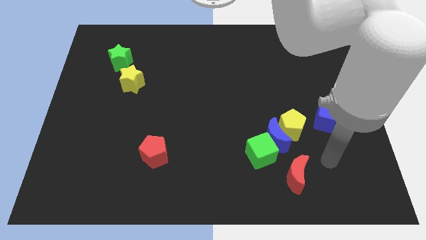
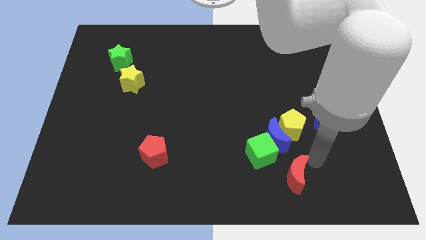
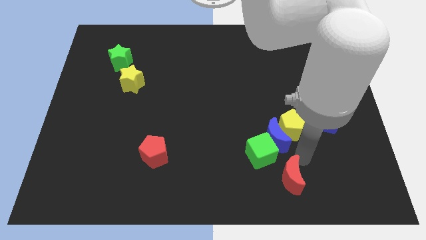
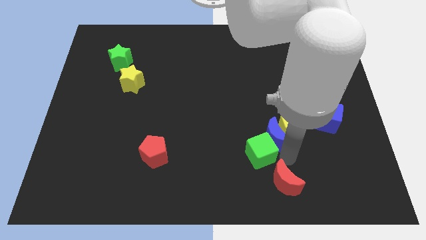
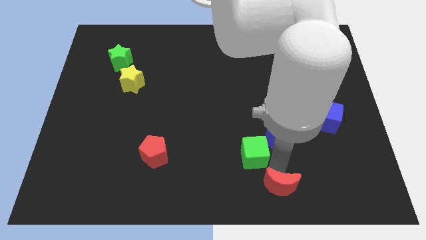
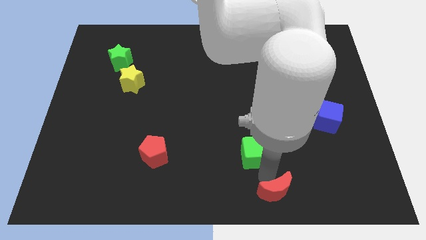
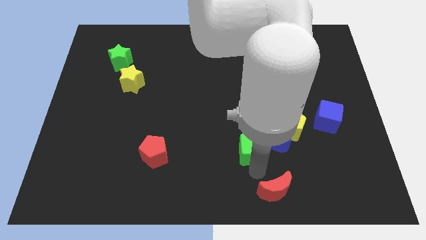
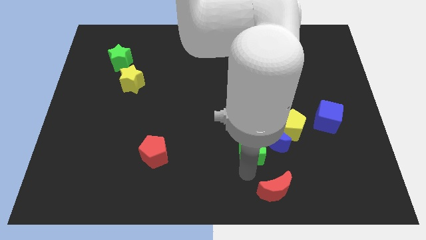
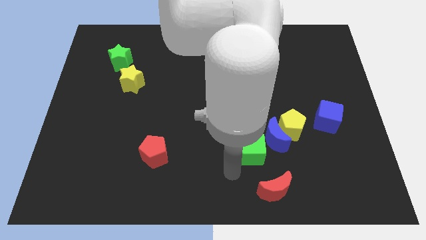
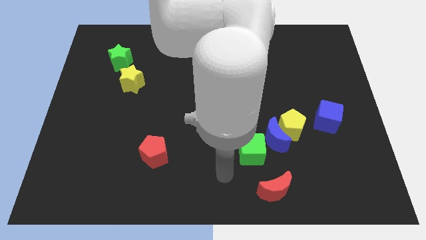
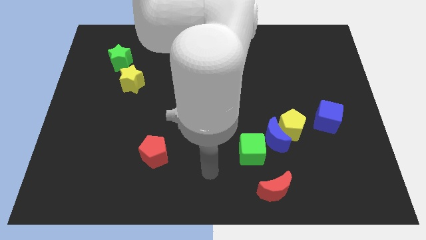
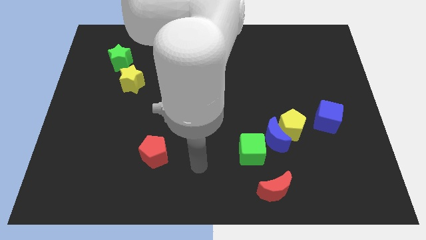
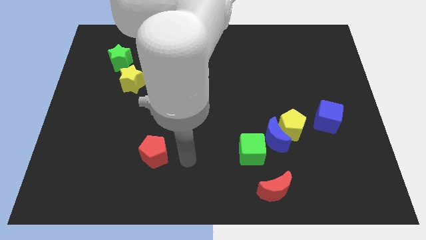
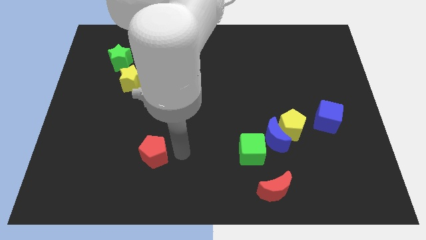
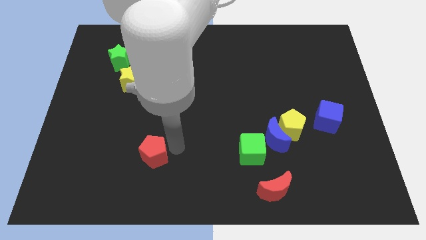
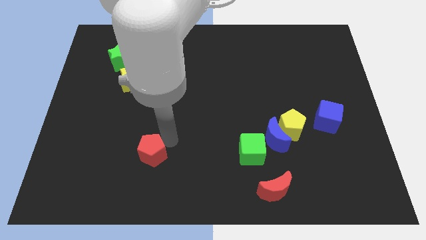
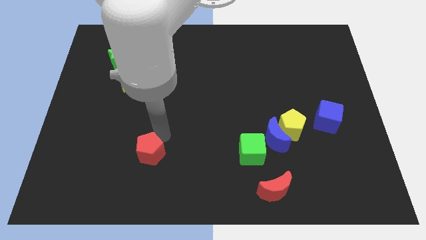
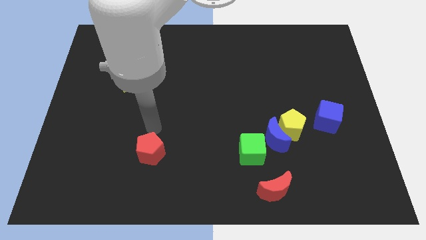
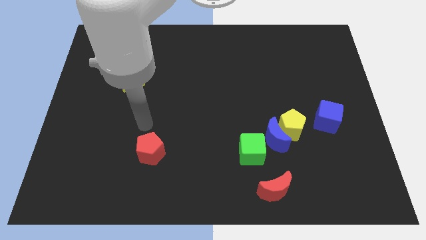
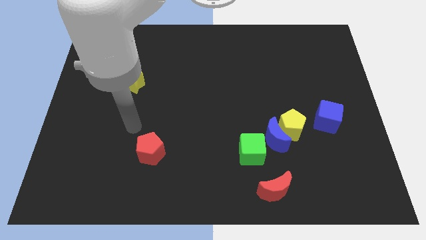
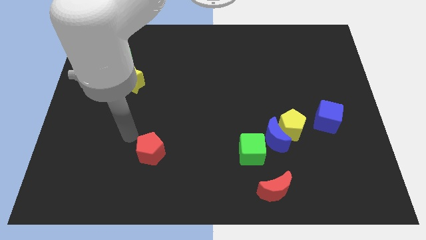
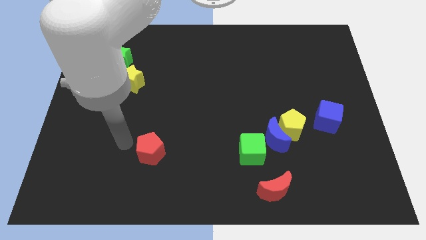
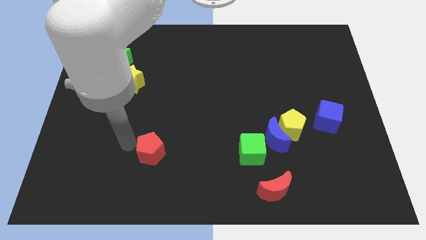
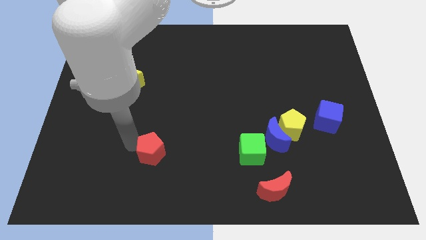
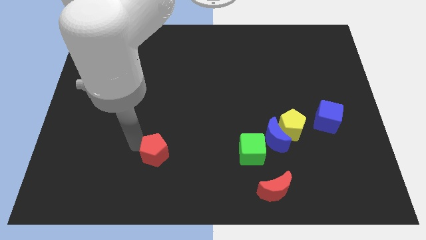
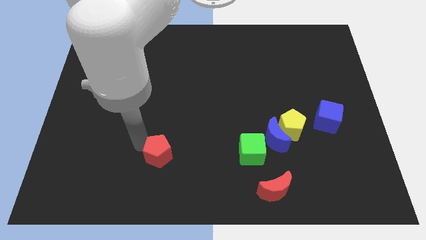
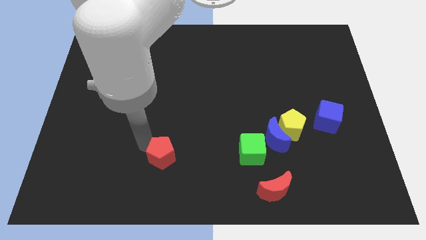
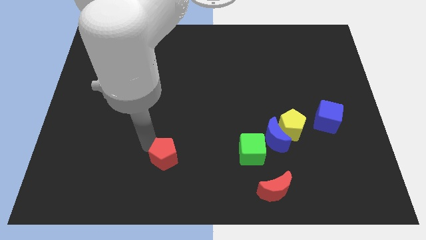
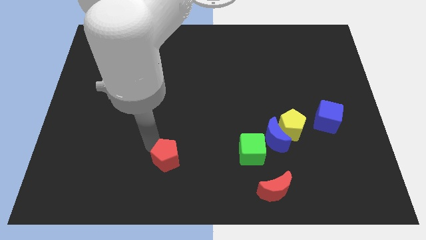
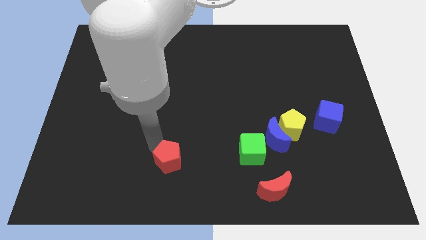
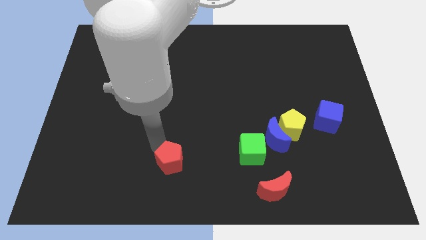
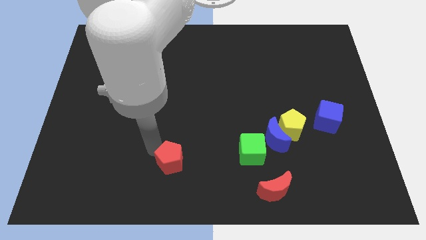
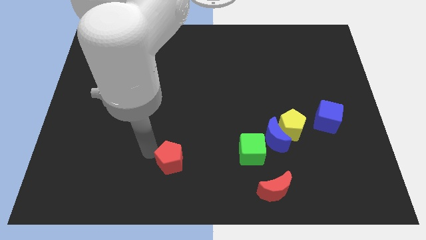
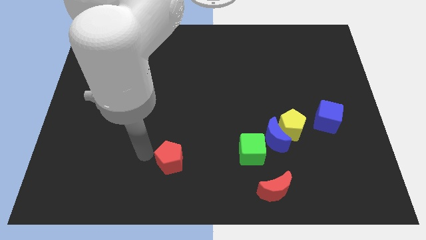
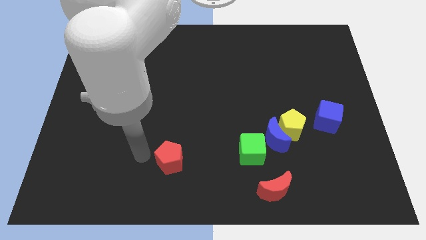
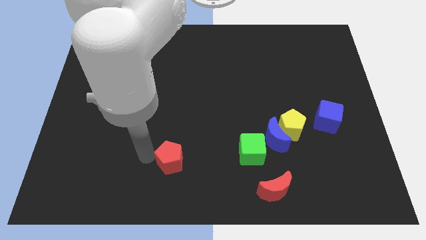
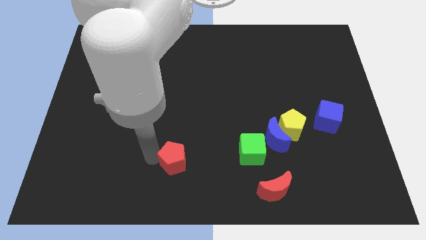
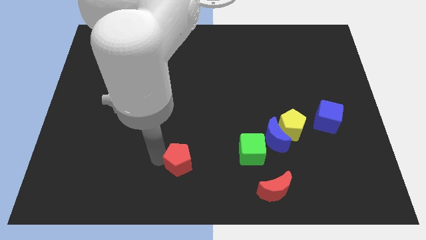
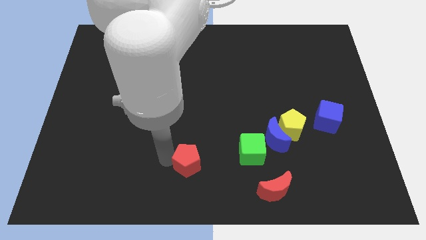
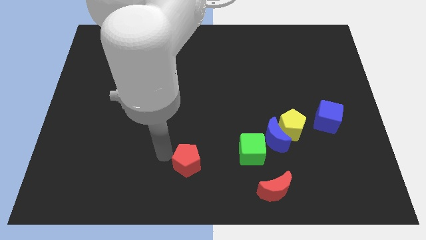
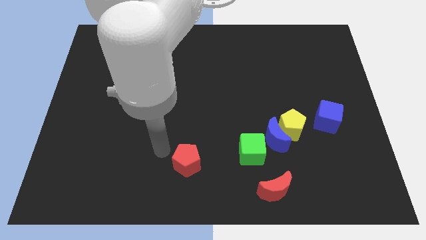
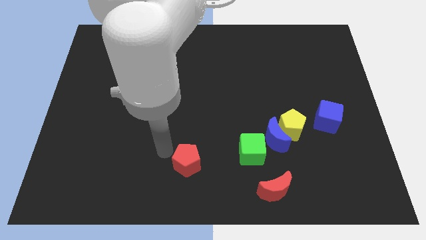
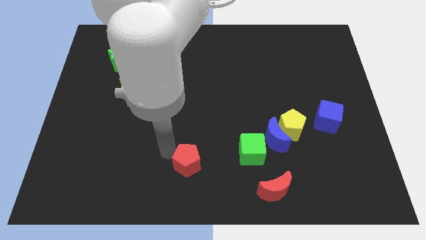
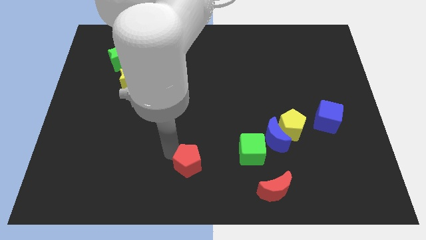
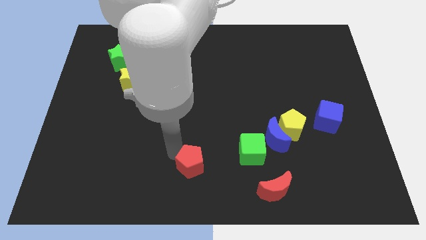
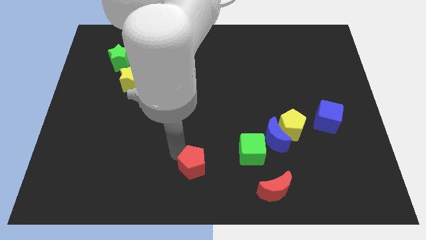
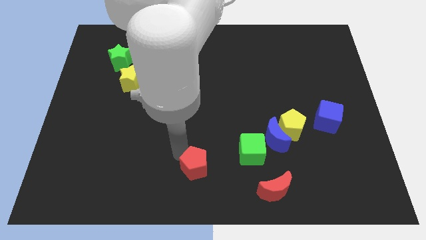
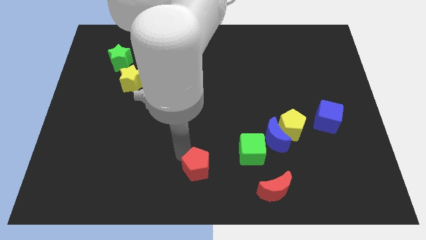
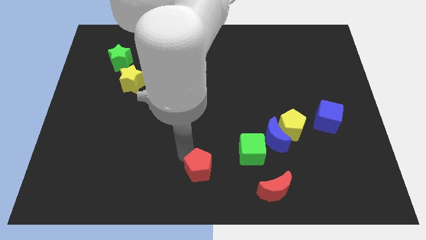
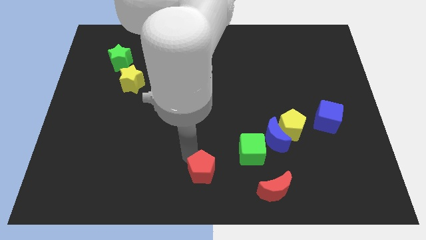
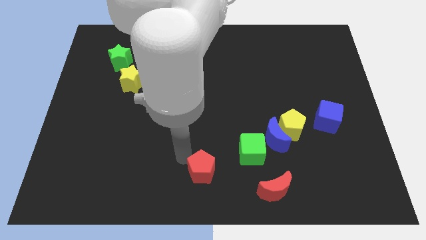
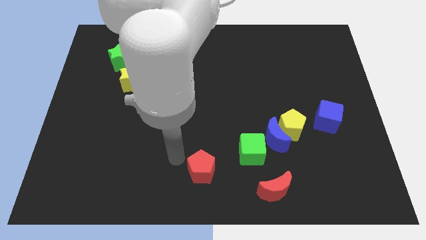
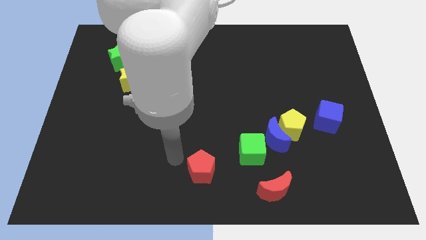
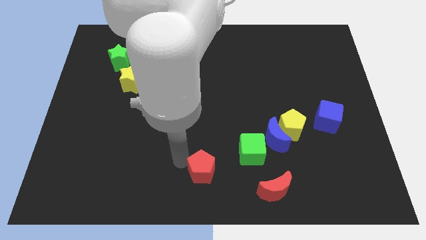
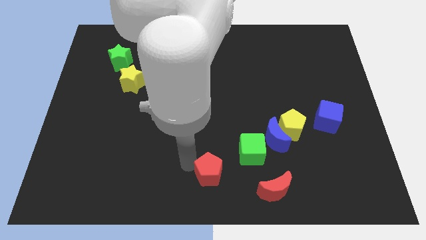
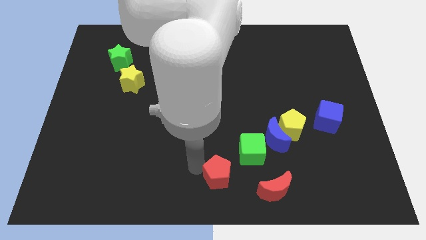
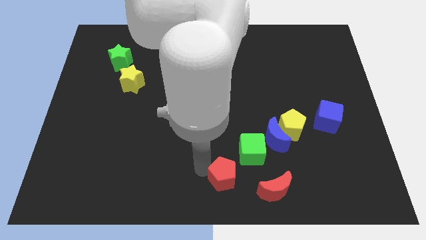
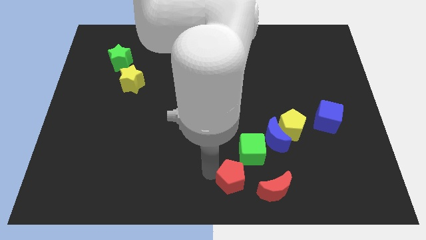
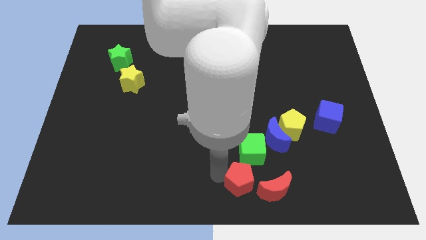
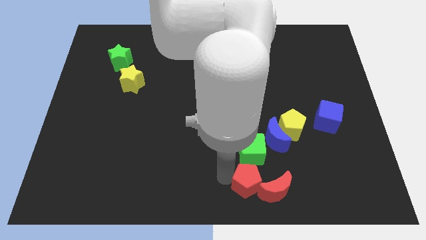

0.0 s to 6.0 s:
push the red pentagon next to the red moon

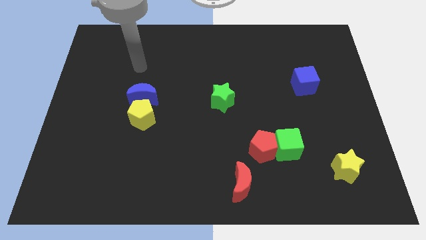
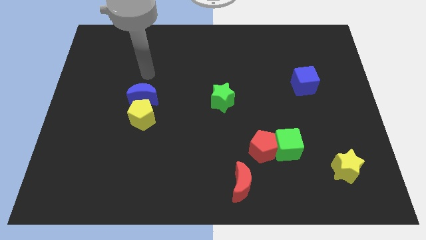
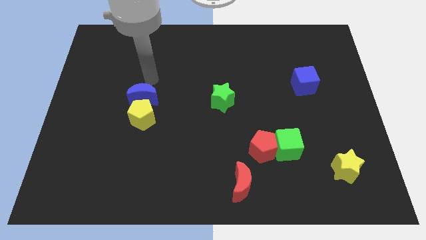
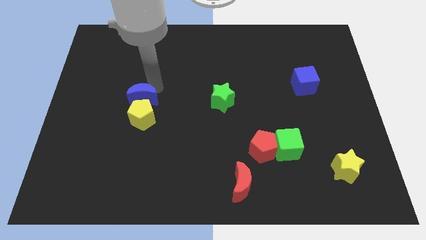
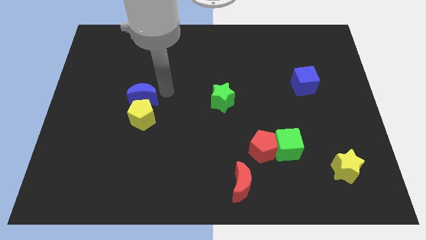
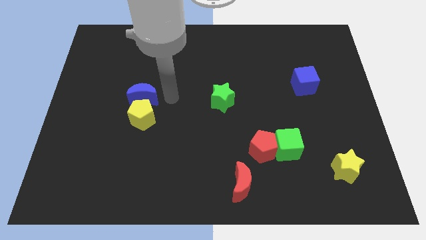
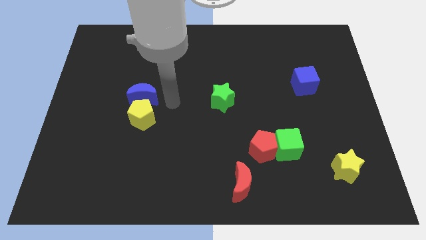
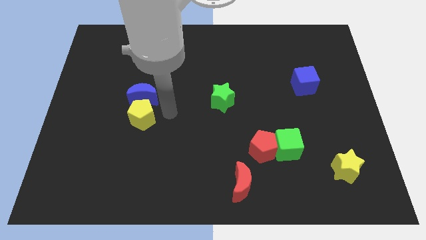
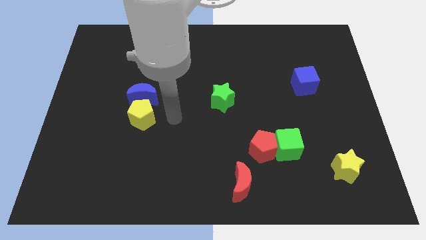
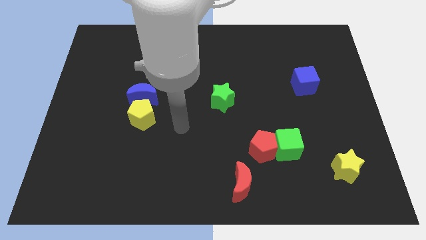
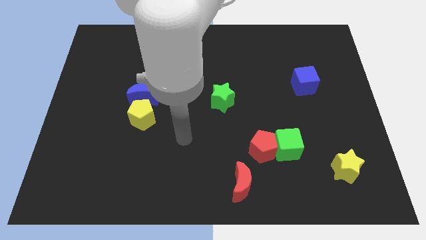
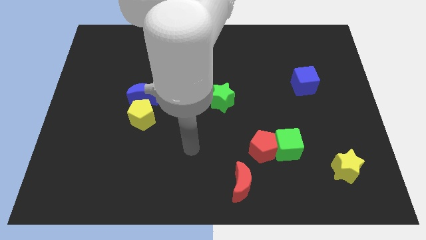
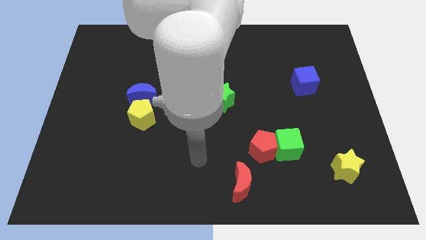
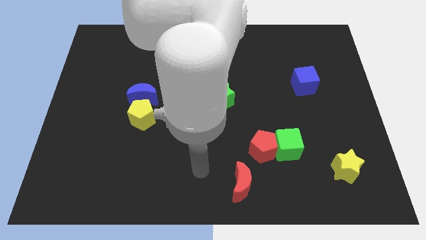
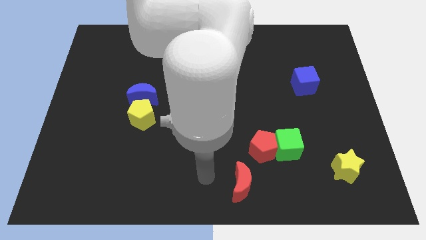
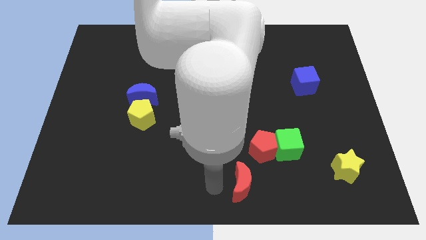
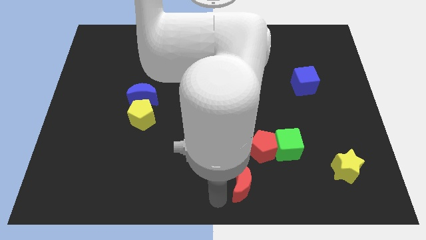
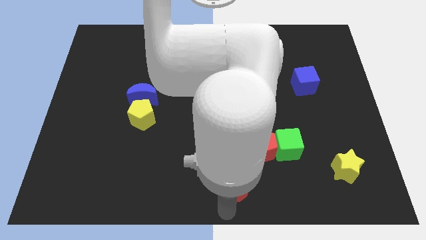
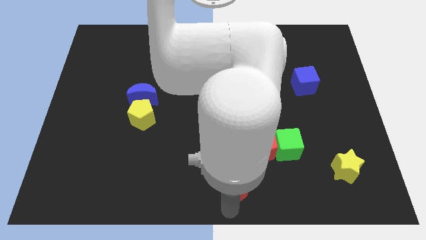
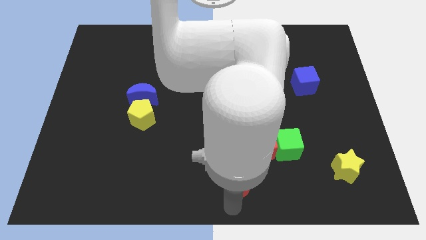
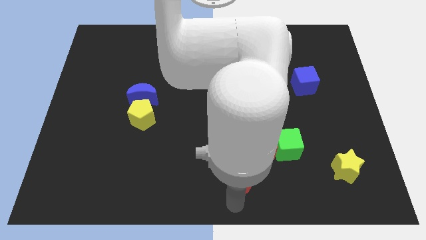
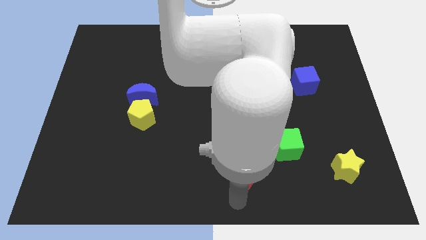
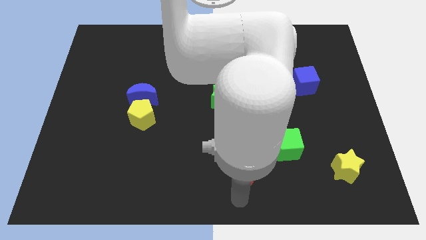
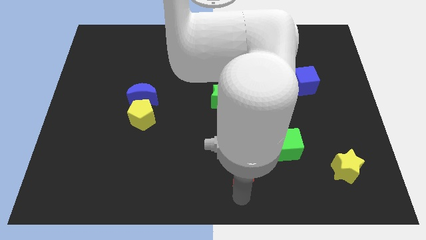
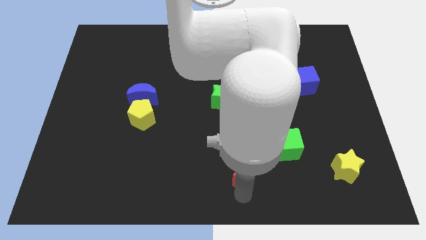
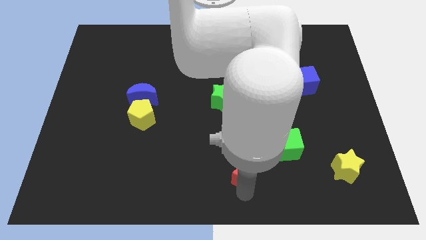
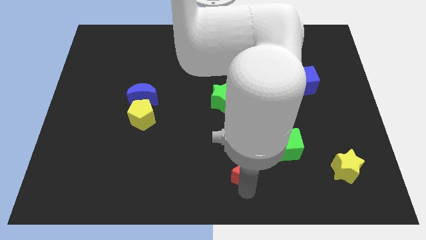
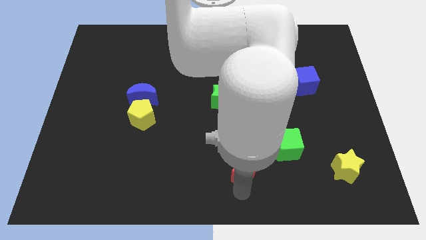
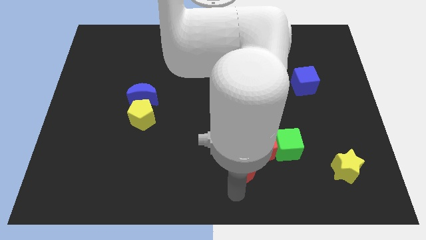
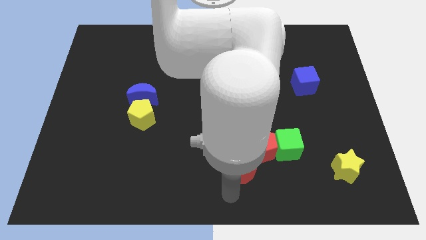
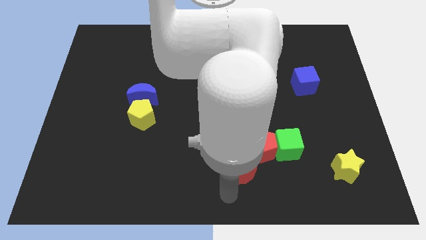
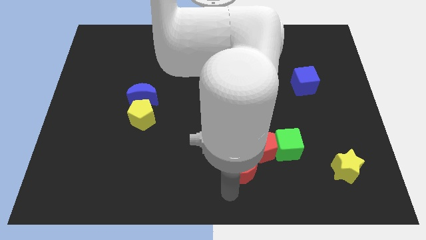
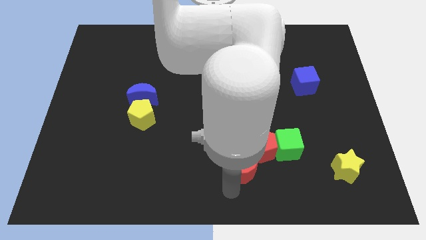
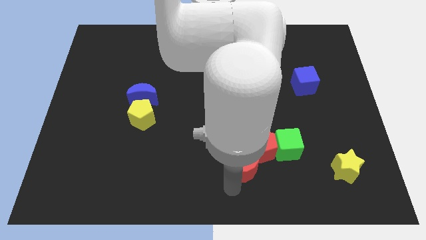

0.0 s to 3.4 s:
push the red moon close to the red pentagon
